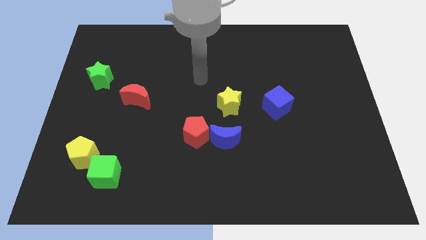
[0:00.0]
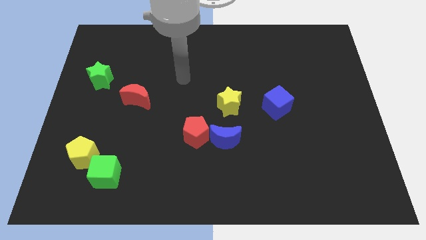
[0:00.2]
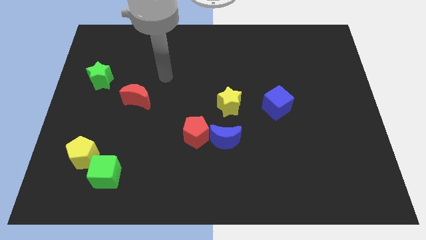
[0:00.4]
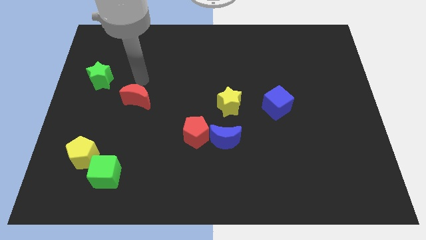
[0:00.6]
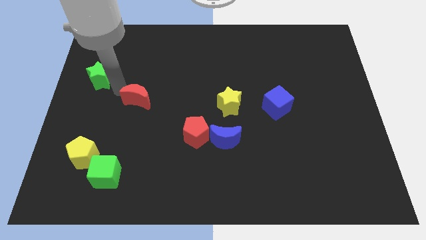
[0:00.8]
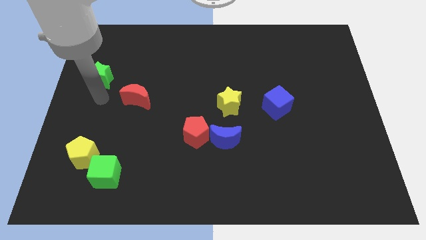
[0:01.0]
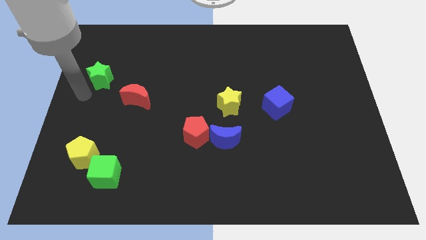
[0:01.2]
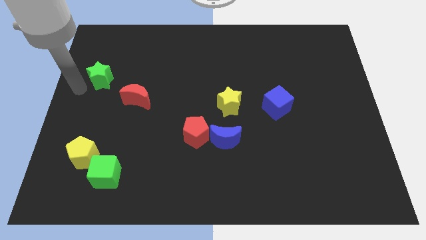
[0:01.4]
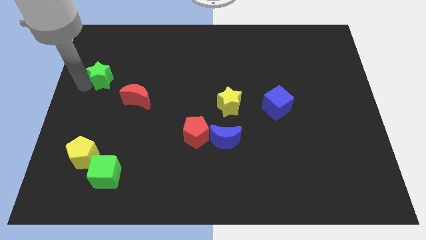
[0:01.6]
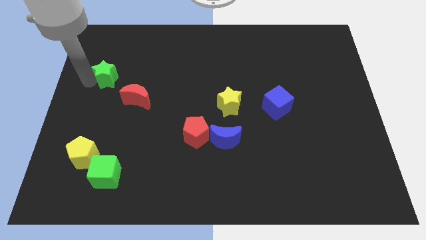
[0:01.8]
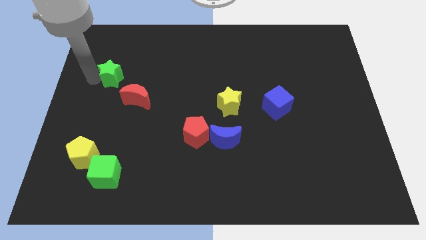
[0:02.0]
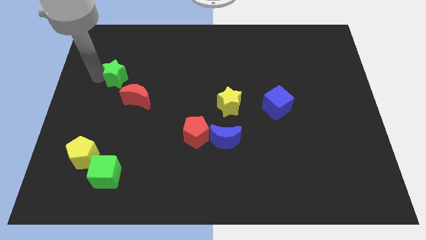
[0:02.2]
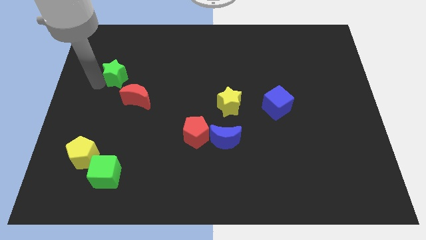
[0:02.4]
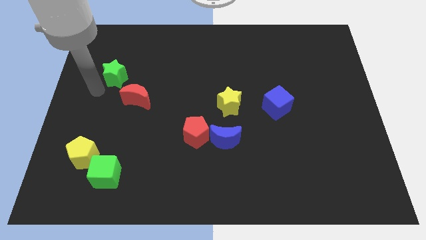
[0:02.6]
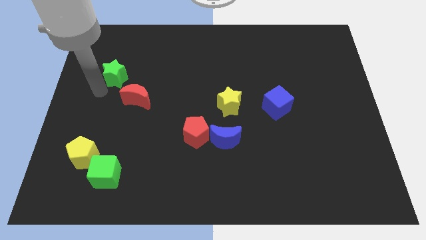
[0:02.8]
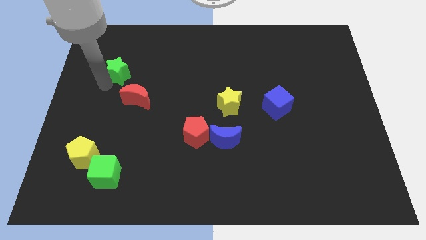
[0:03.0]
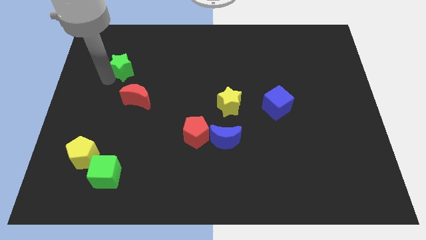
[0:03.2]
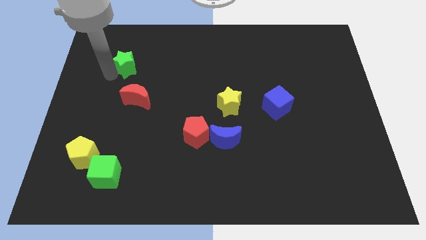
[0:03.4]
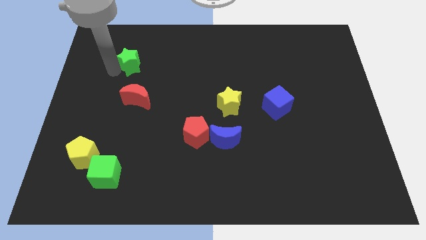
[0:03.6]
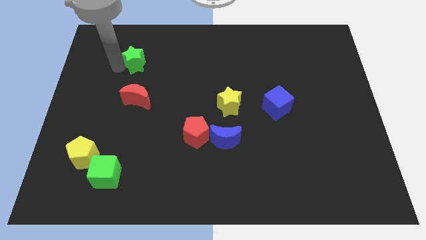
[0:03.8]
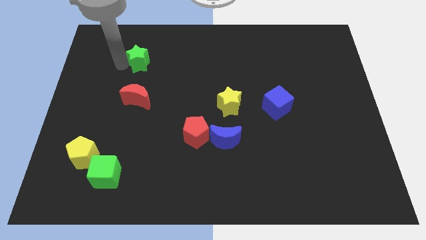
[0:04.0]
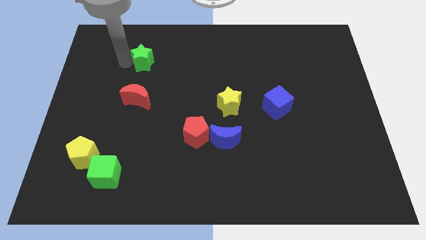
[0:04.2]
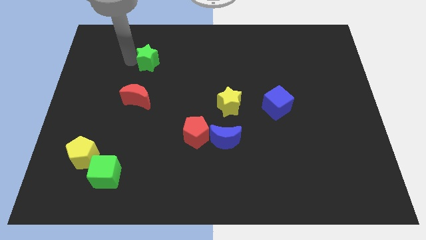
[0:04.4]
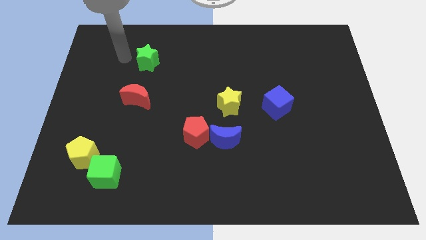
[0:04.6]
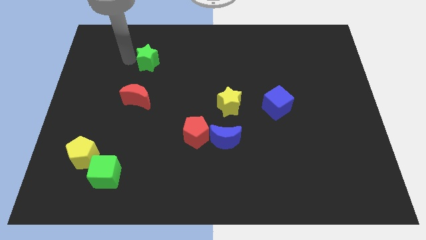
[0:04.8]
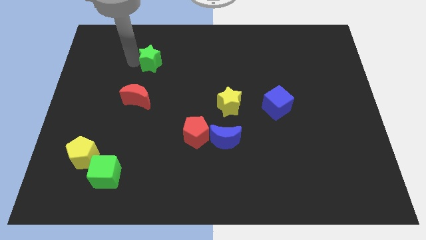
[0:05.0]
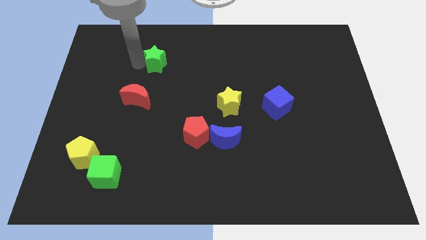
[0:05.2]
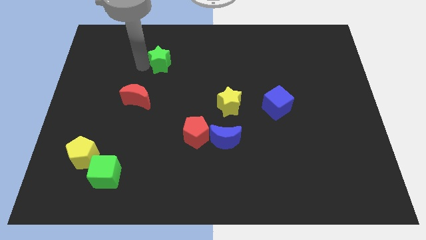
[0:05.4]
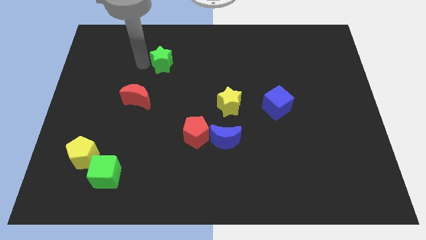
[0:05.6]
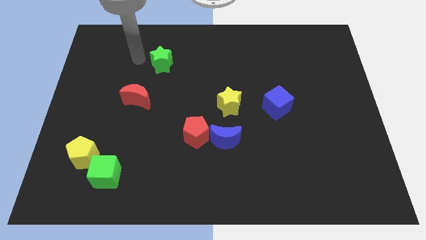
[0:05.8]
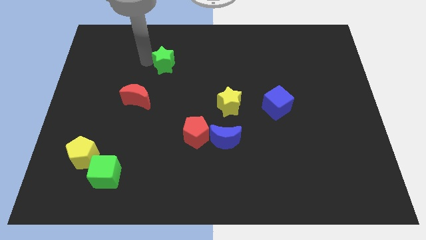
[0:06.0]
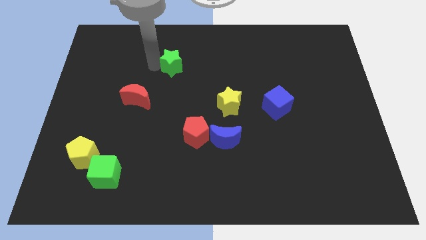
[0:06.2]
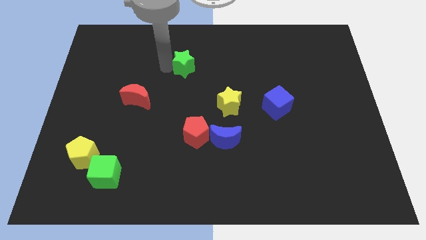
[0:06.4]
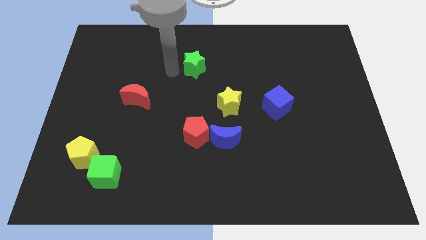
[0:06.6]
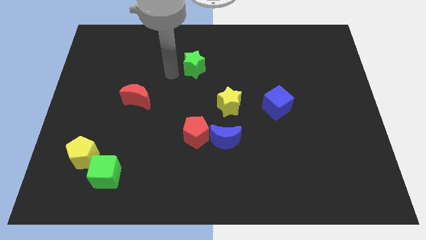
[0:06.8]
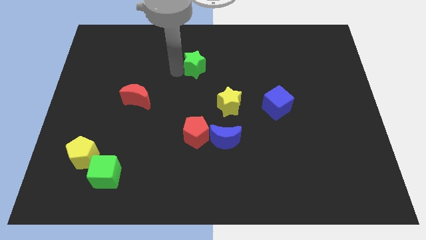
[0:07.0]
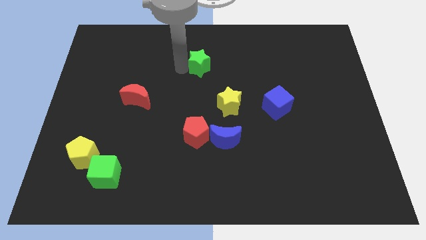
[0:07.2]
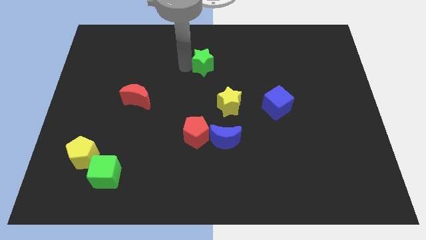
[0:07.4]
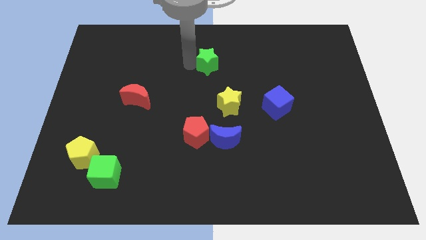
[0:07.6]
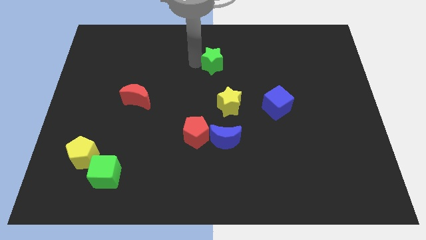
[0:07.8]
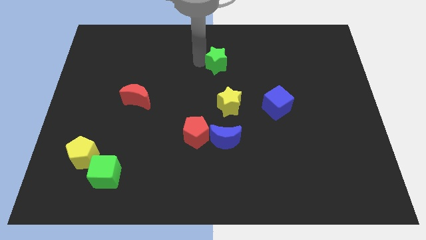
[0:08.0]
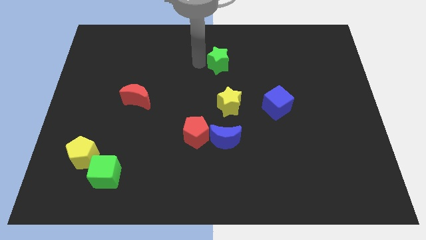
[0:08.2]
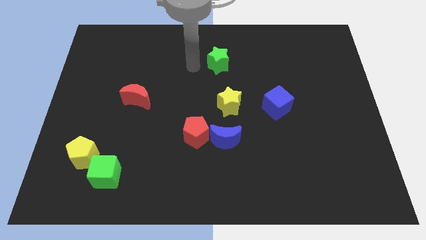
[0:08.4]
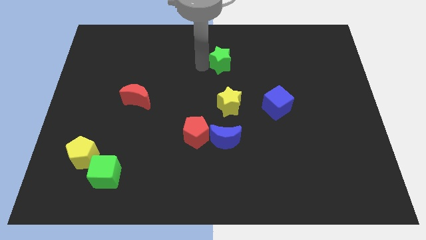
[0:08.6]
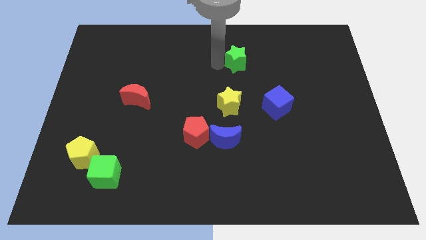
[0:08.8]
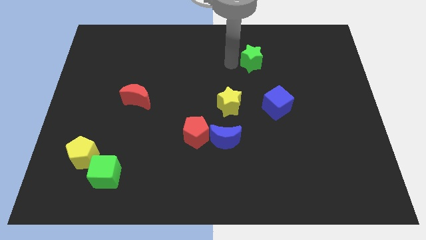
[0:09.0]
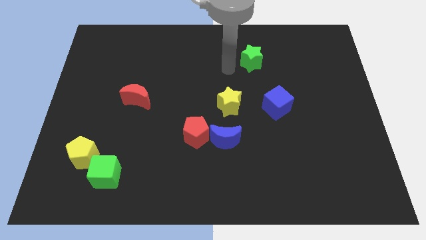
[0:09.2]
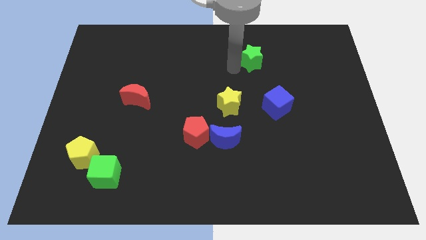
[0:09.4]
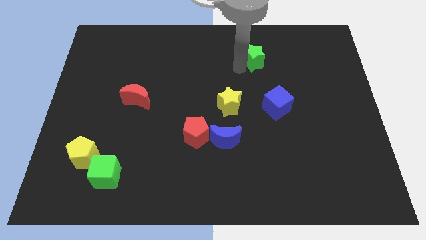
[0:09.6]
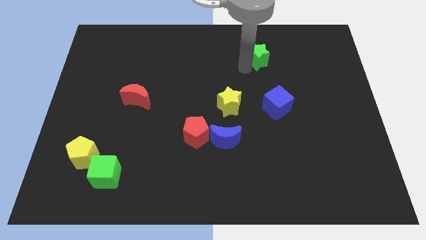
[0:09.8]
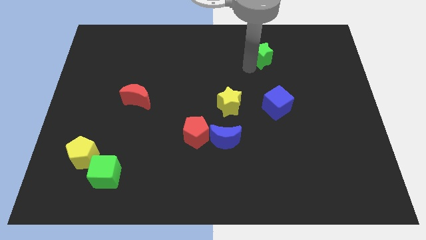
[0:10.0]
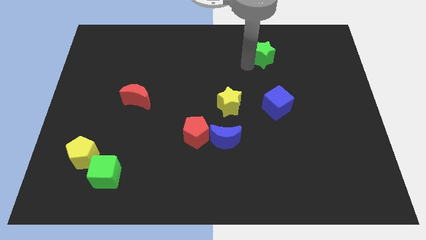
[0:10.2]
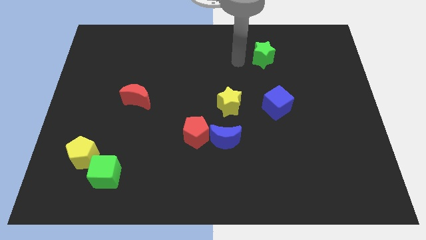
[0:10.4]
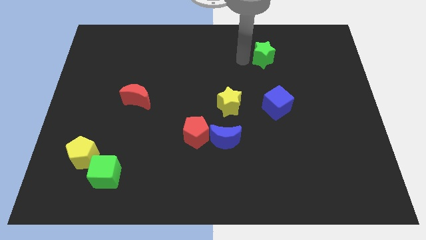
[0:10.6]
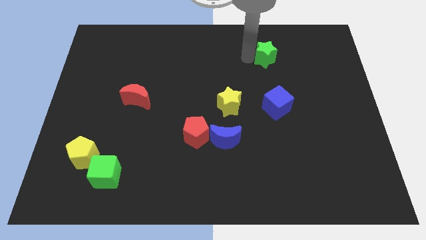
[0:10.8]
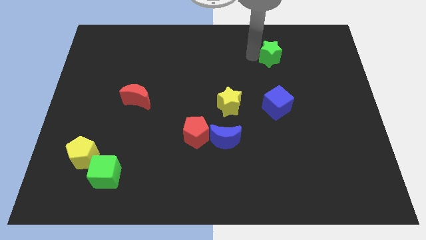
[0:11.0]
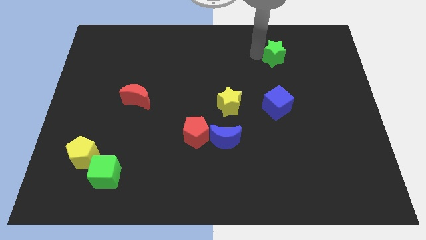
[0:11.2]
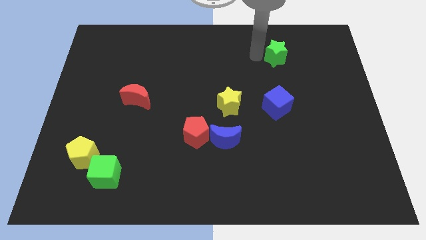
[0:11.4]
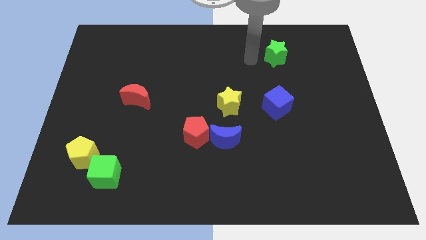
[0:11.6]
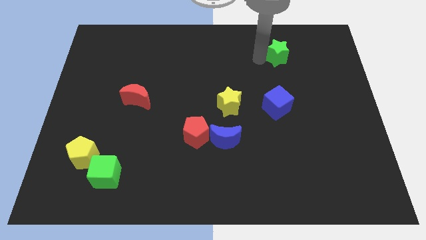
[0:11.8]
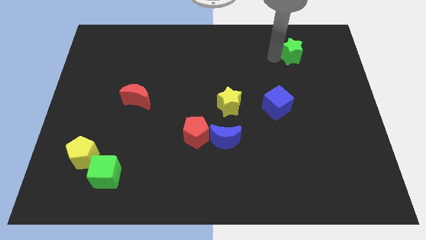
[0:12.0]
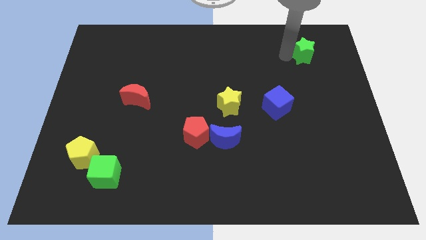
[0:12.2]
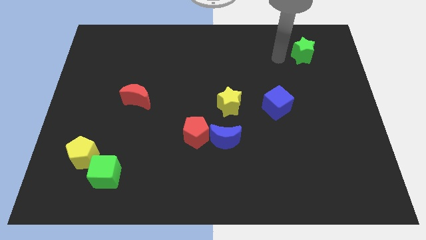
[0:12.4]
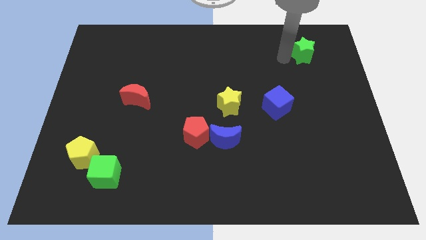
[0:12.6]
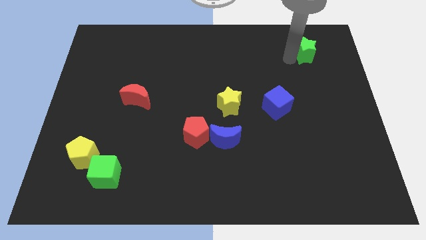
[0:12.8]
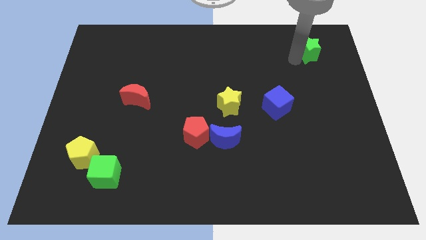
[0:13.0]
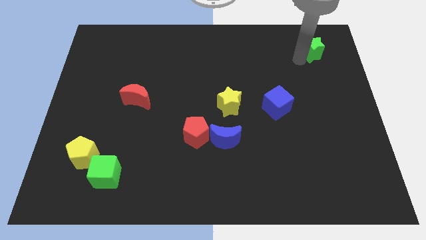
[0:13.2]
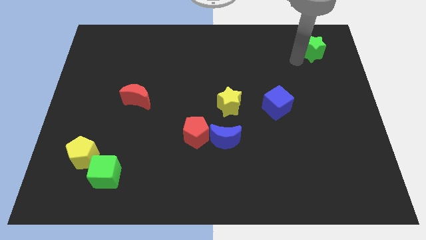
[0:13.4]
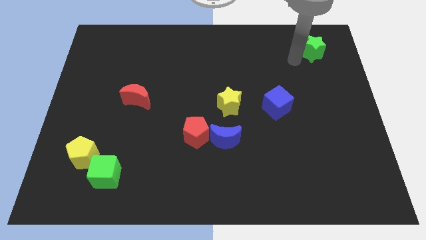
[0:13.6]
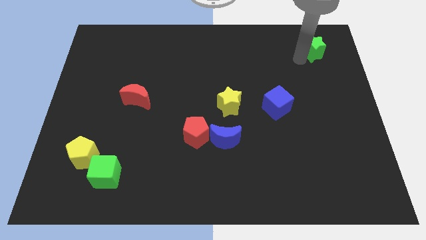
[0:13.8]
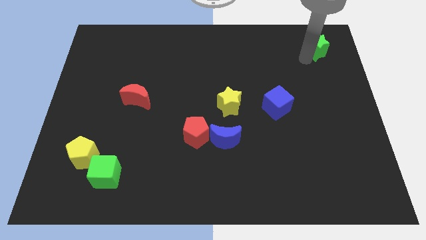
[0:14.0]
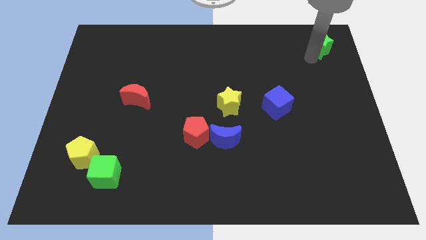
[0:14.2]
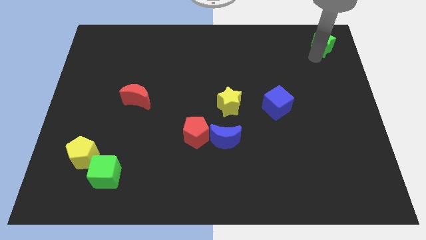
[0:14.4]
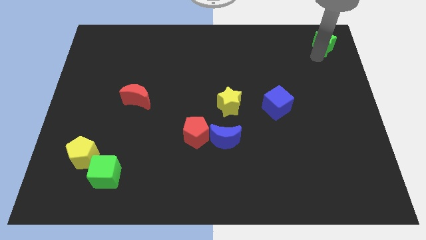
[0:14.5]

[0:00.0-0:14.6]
put the green star to the upper right corner

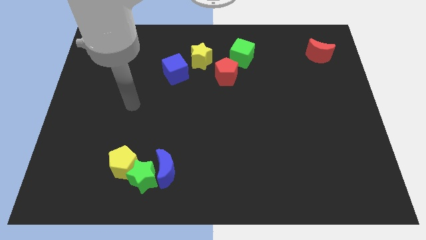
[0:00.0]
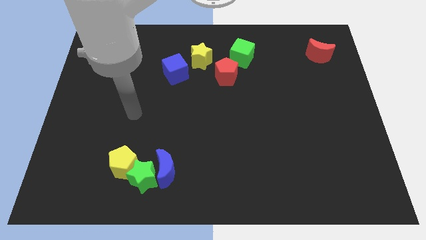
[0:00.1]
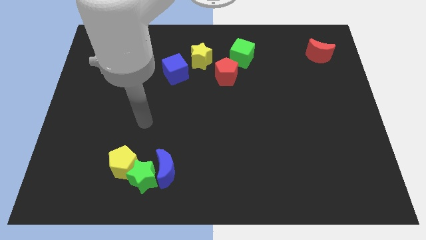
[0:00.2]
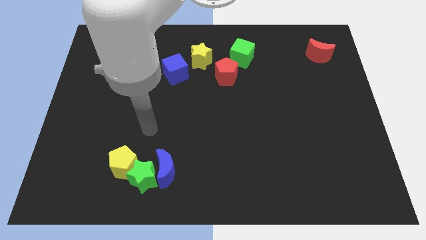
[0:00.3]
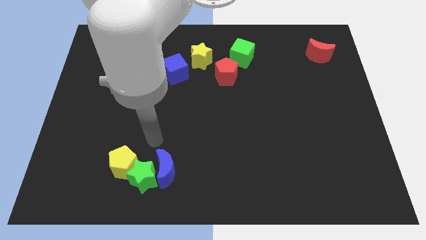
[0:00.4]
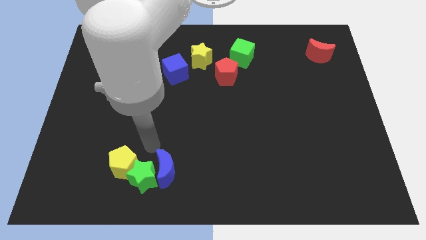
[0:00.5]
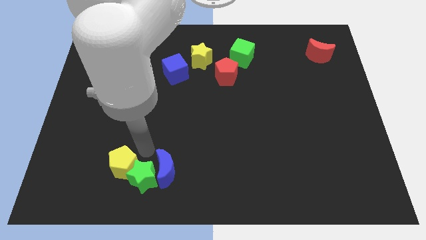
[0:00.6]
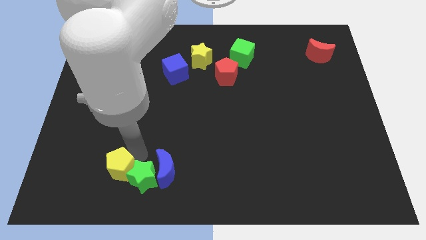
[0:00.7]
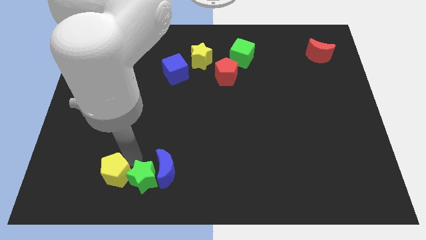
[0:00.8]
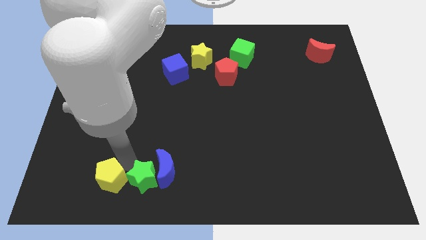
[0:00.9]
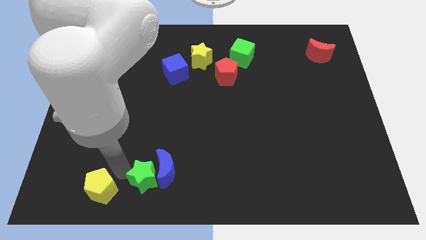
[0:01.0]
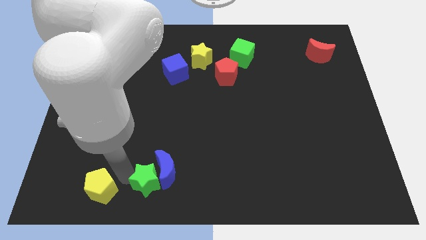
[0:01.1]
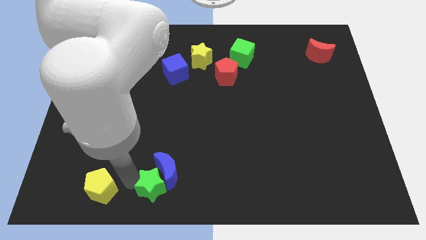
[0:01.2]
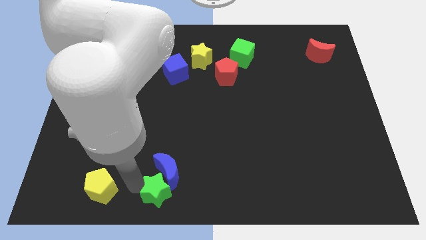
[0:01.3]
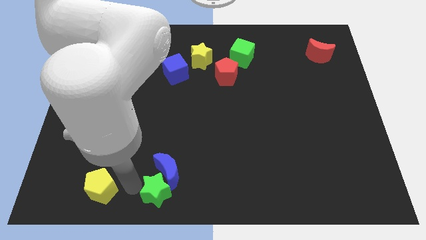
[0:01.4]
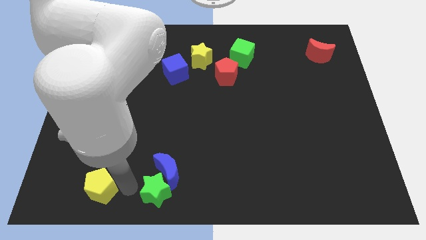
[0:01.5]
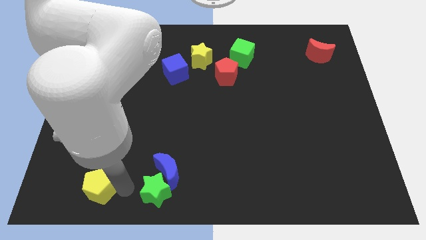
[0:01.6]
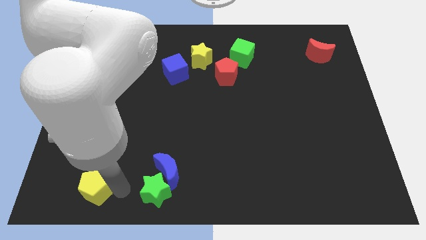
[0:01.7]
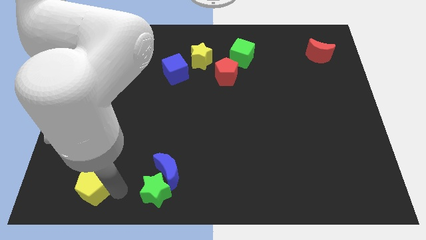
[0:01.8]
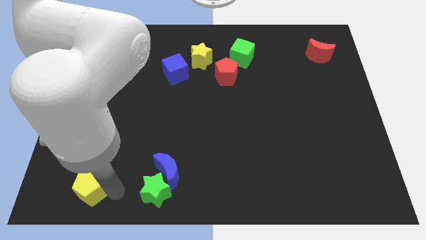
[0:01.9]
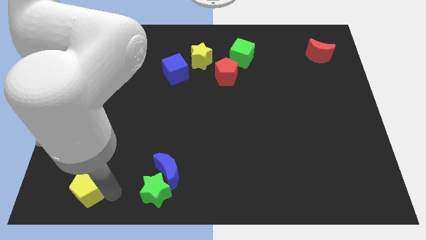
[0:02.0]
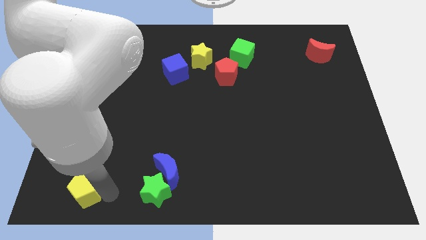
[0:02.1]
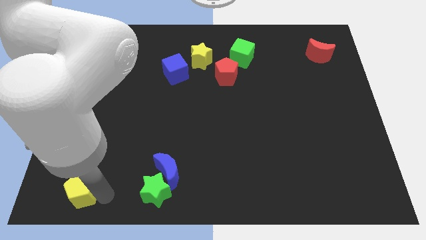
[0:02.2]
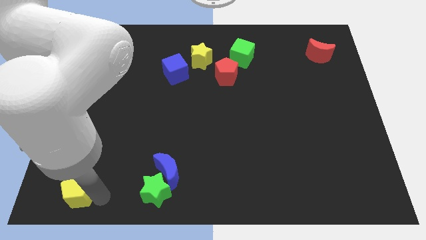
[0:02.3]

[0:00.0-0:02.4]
put the yellow pentagon to the bottom left corner
